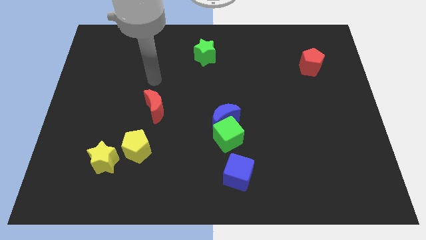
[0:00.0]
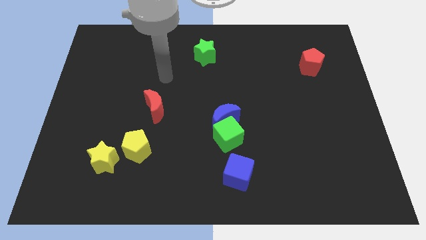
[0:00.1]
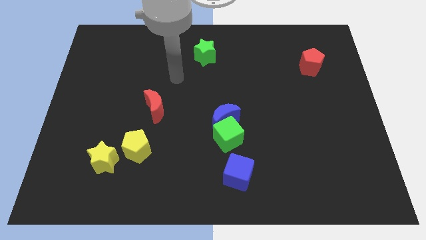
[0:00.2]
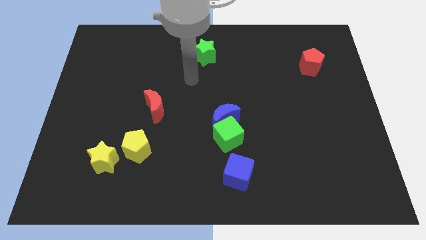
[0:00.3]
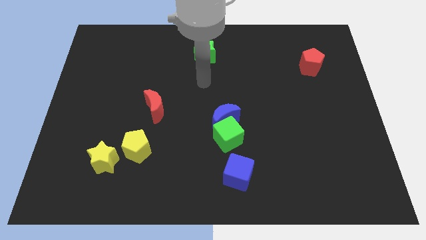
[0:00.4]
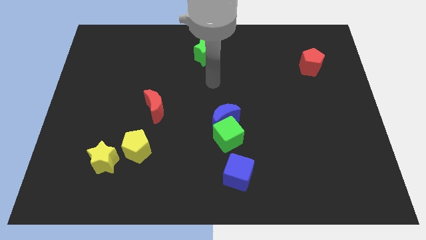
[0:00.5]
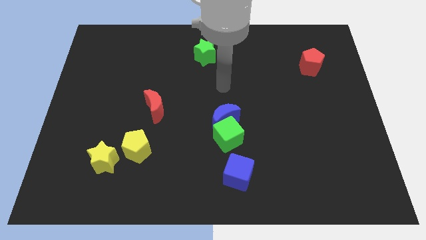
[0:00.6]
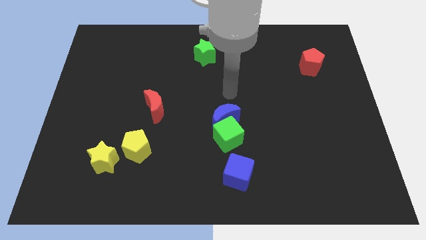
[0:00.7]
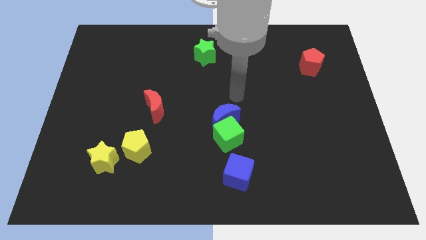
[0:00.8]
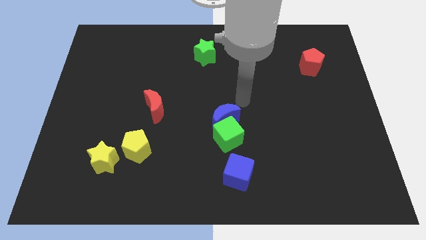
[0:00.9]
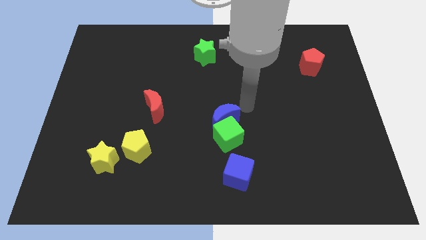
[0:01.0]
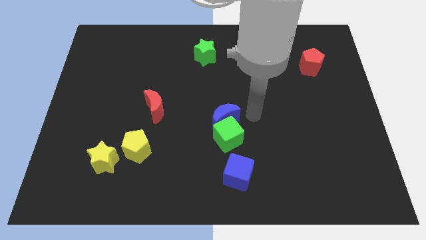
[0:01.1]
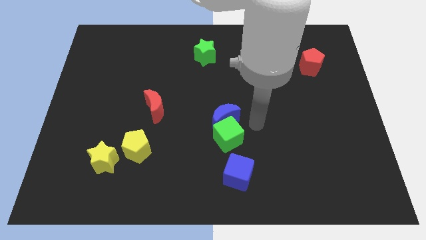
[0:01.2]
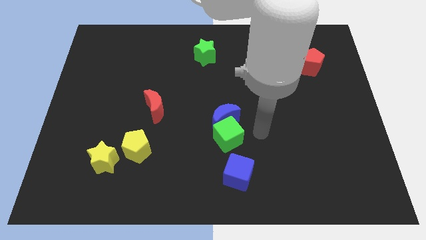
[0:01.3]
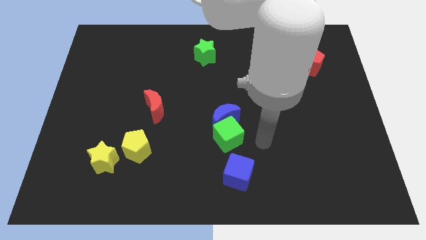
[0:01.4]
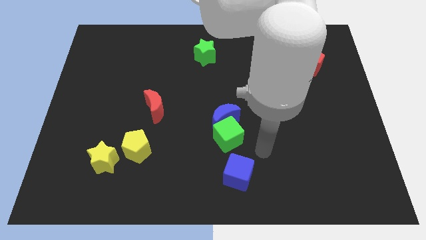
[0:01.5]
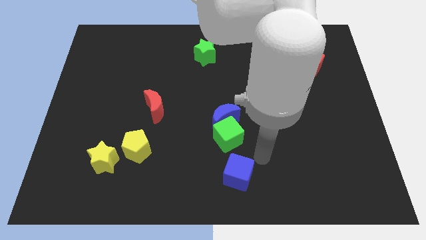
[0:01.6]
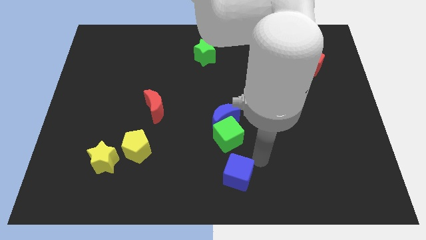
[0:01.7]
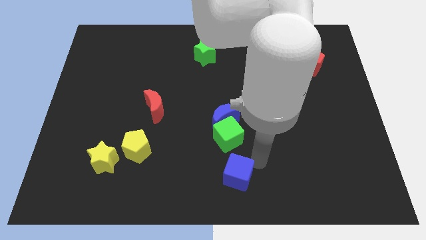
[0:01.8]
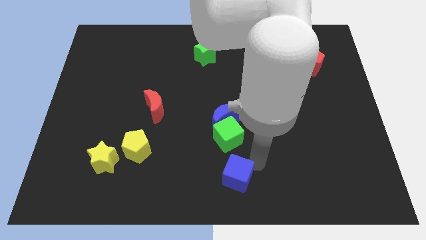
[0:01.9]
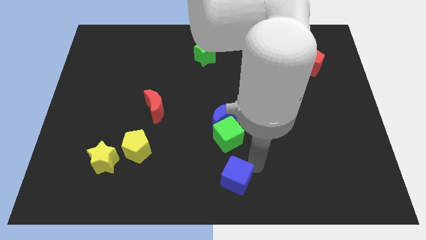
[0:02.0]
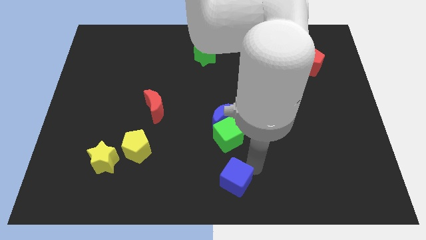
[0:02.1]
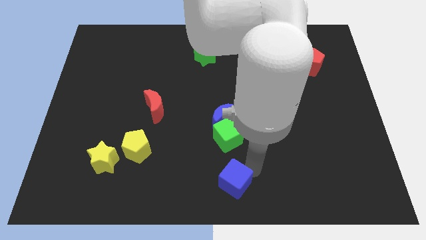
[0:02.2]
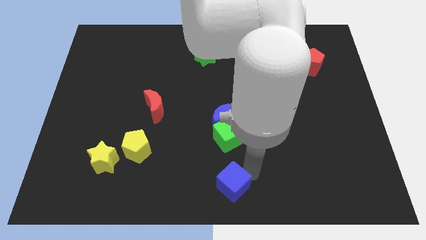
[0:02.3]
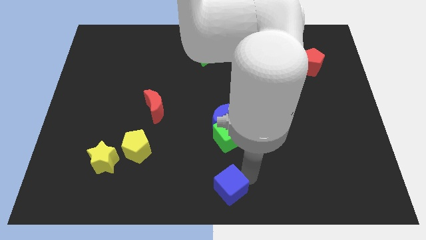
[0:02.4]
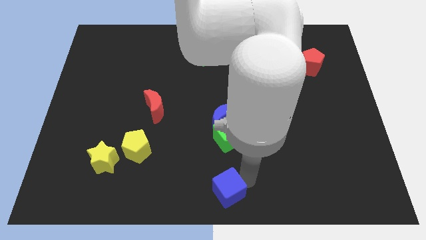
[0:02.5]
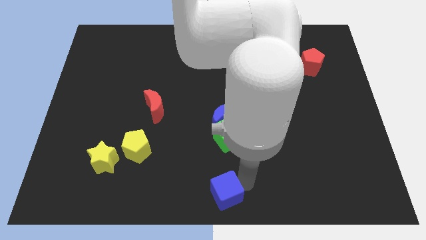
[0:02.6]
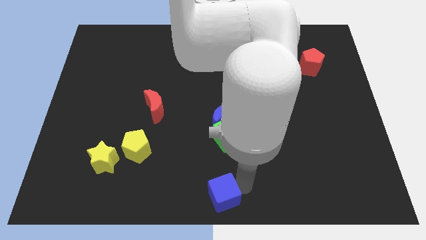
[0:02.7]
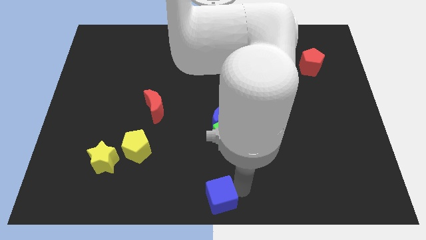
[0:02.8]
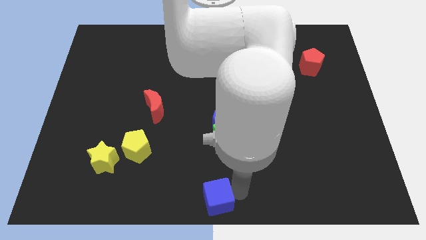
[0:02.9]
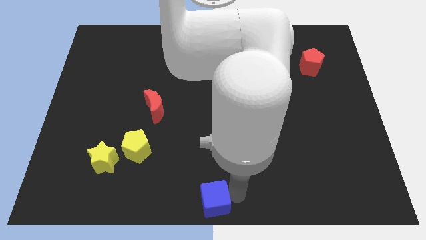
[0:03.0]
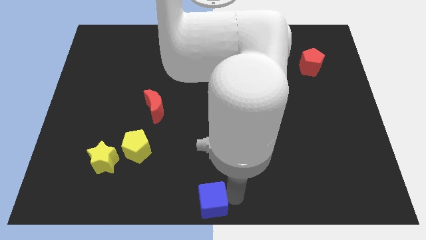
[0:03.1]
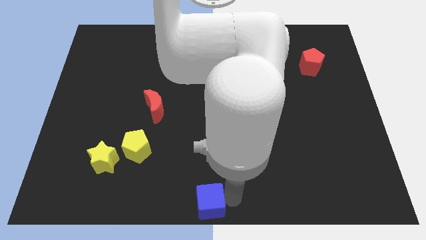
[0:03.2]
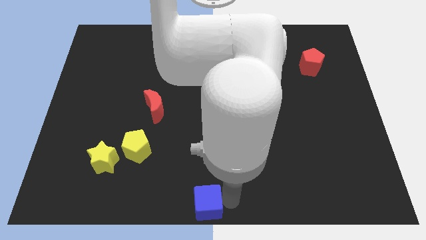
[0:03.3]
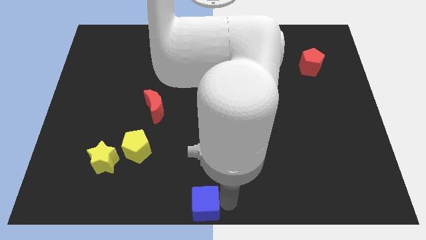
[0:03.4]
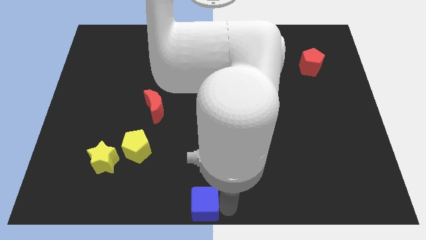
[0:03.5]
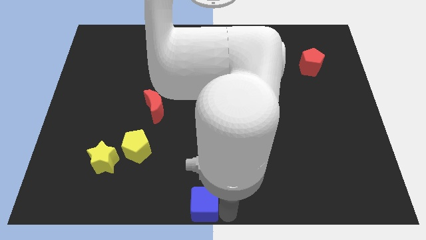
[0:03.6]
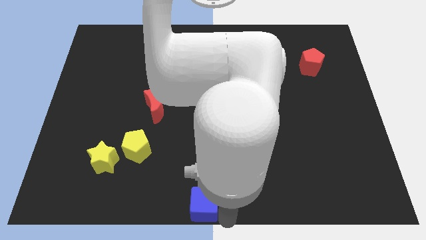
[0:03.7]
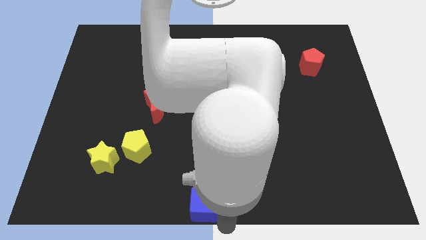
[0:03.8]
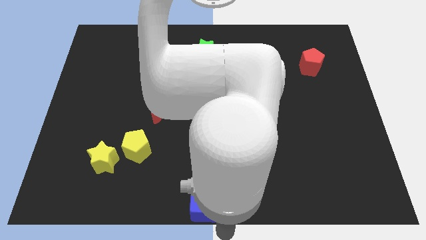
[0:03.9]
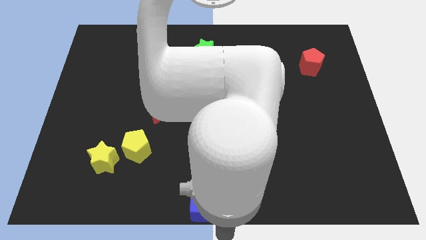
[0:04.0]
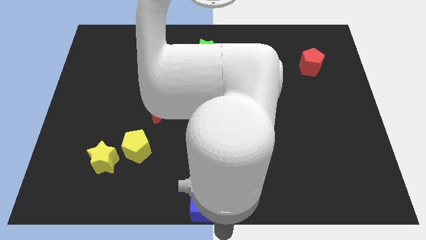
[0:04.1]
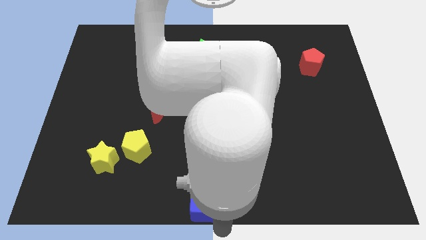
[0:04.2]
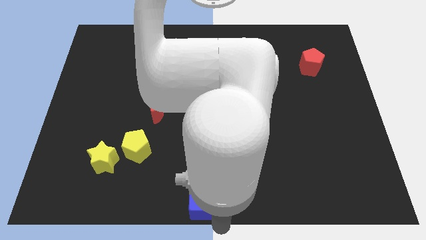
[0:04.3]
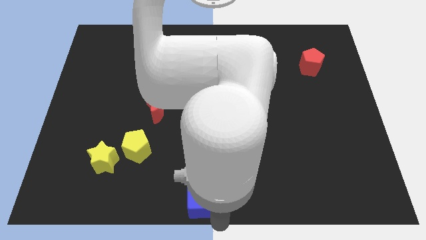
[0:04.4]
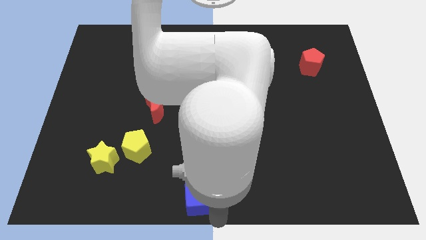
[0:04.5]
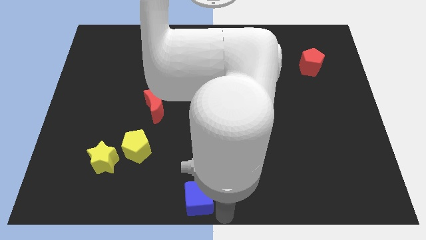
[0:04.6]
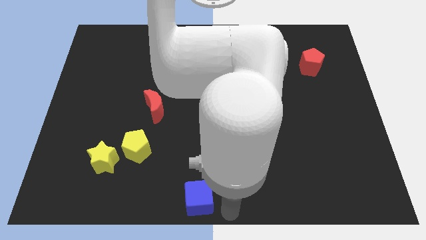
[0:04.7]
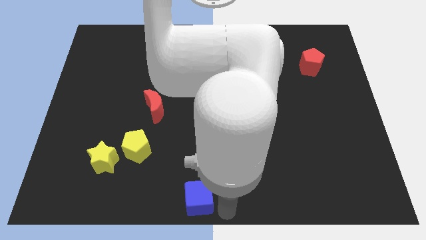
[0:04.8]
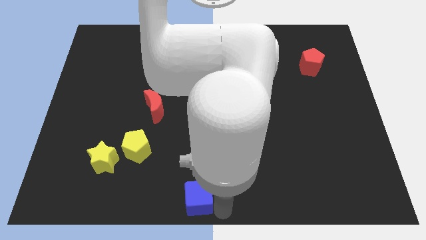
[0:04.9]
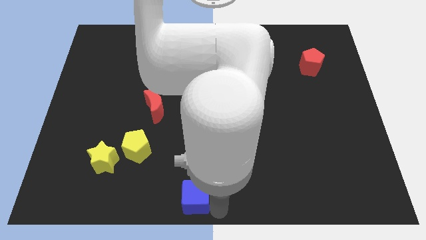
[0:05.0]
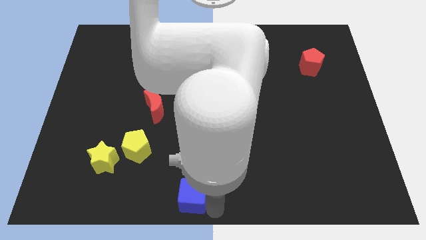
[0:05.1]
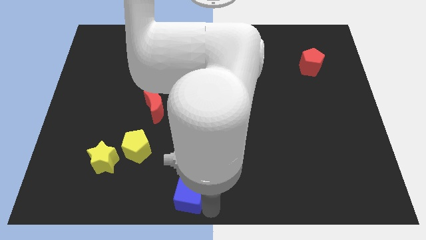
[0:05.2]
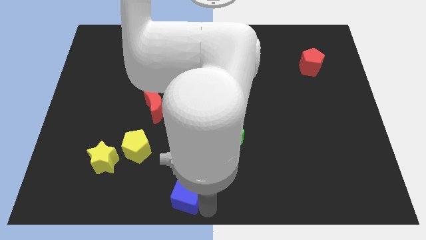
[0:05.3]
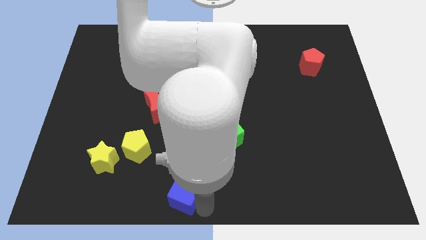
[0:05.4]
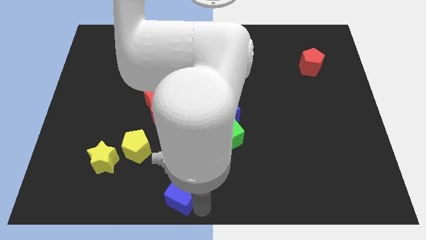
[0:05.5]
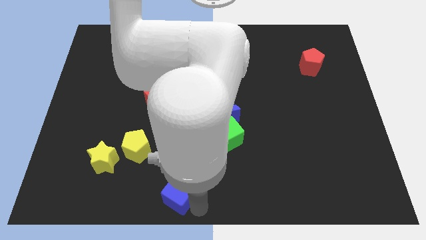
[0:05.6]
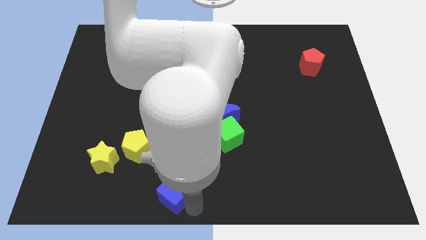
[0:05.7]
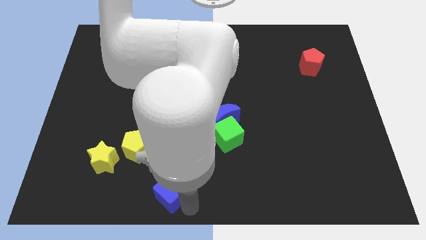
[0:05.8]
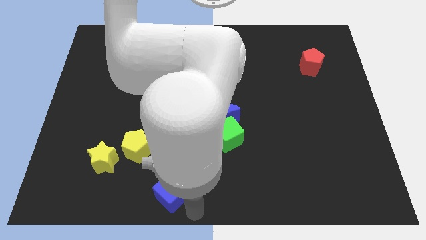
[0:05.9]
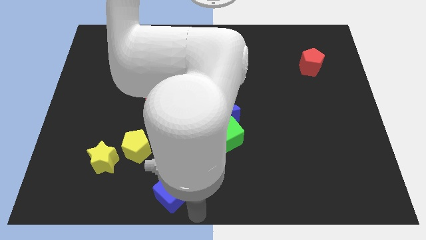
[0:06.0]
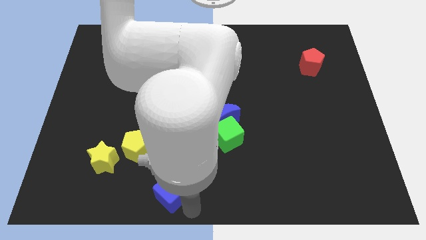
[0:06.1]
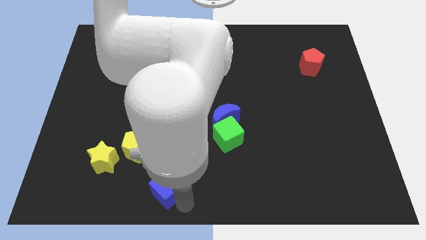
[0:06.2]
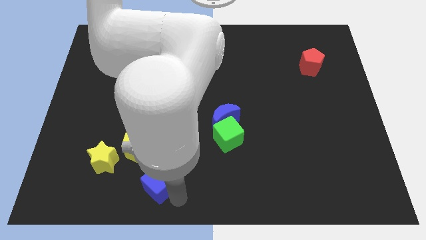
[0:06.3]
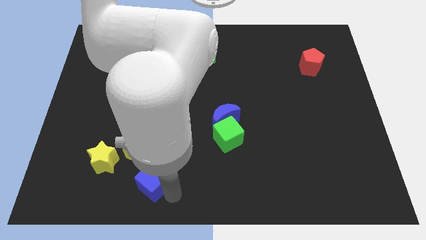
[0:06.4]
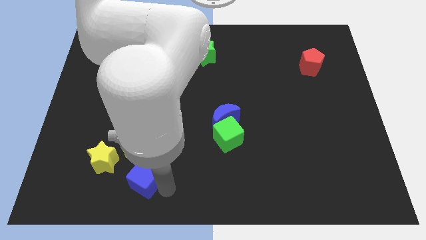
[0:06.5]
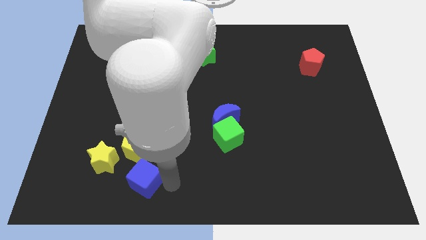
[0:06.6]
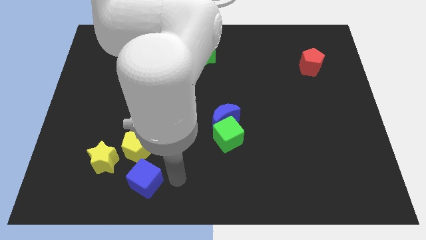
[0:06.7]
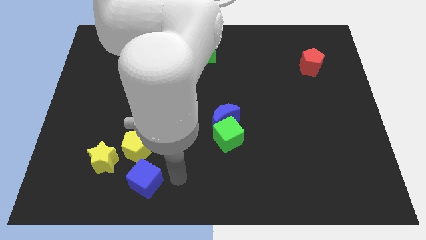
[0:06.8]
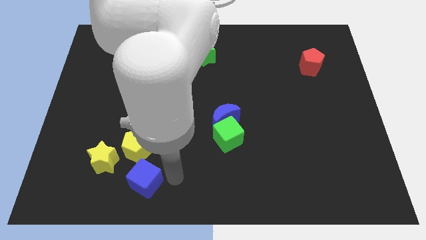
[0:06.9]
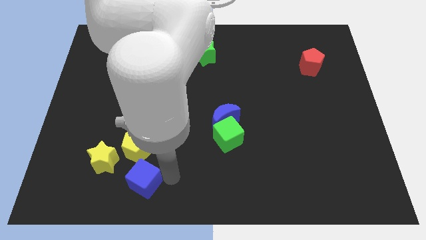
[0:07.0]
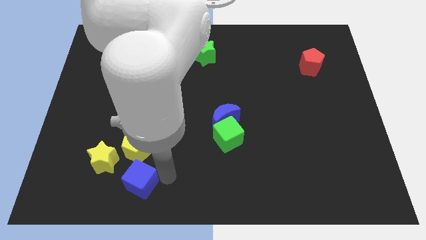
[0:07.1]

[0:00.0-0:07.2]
move the blue cube to the left

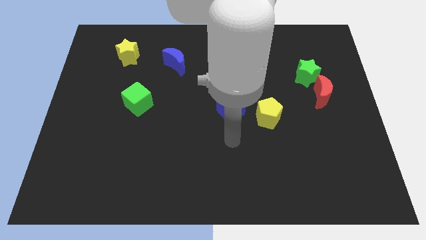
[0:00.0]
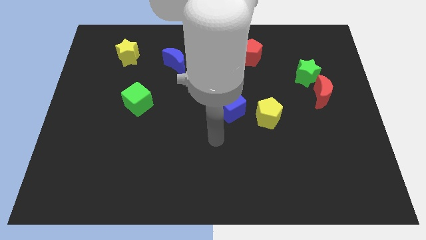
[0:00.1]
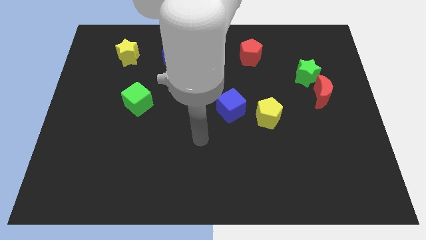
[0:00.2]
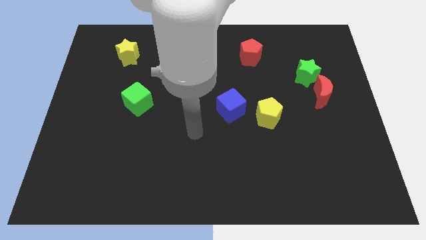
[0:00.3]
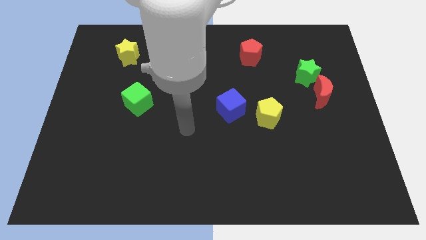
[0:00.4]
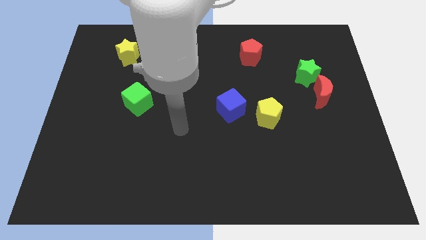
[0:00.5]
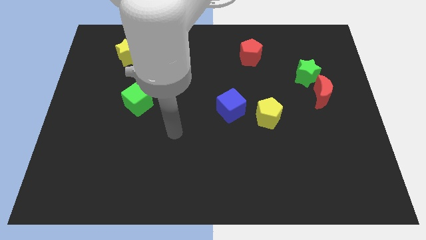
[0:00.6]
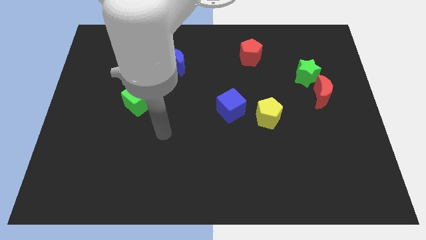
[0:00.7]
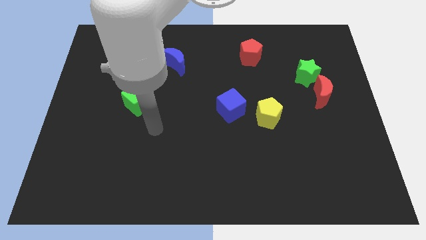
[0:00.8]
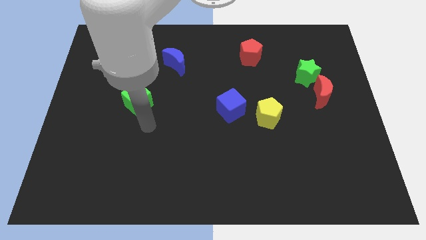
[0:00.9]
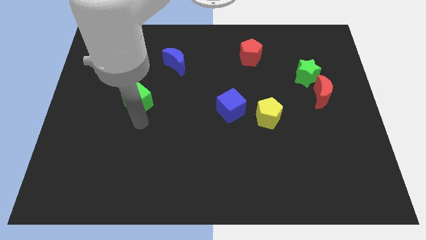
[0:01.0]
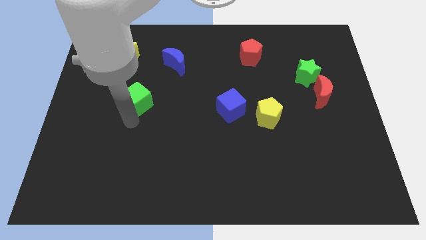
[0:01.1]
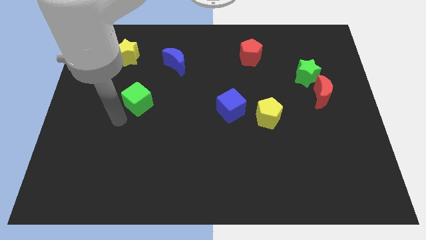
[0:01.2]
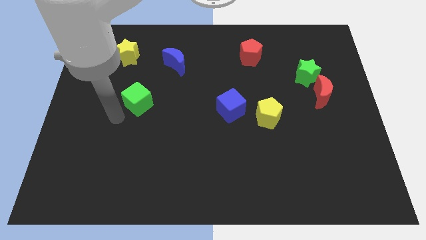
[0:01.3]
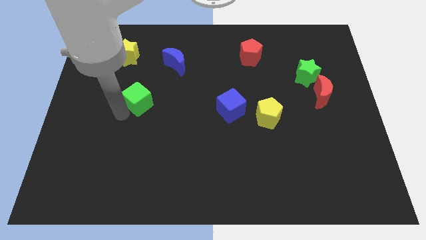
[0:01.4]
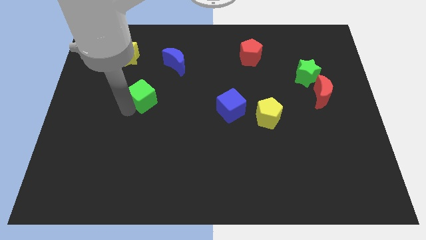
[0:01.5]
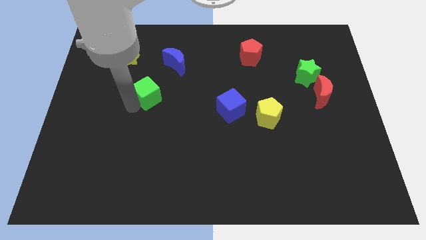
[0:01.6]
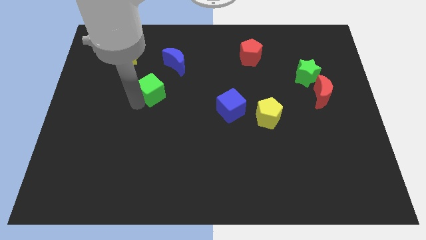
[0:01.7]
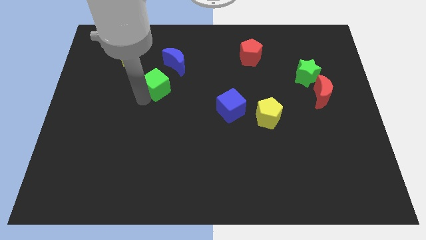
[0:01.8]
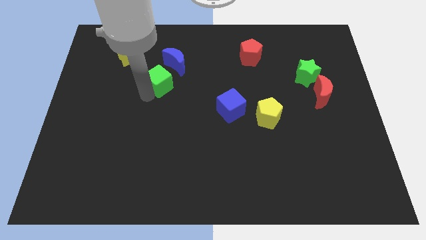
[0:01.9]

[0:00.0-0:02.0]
push the green cube diagonally upwards and to the right a bit
